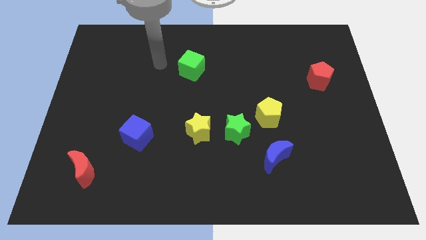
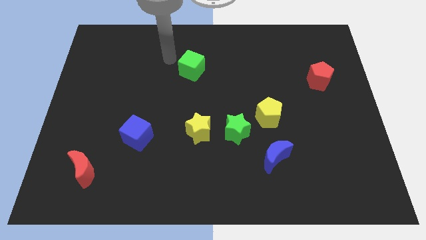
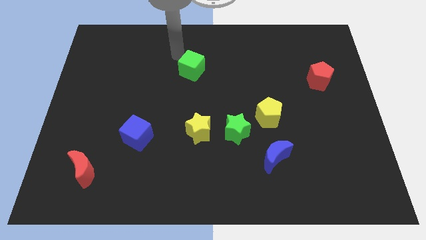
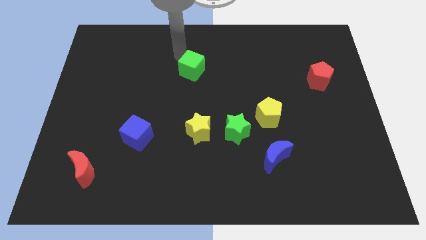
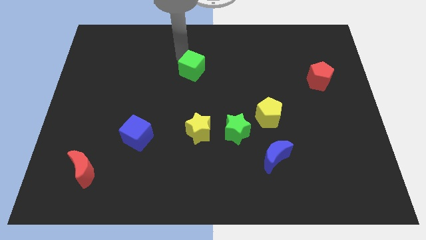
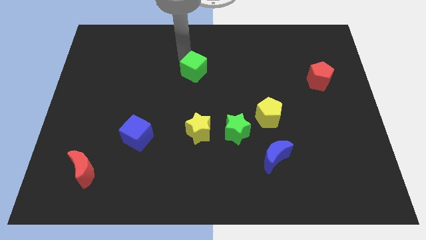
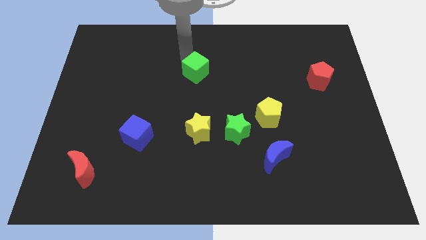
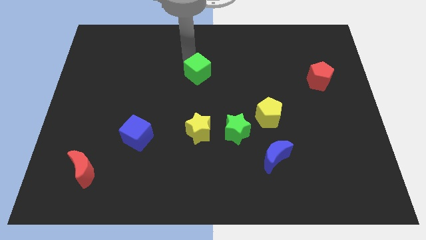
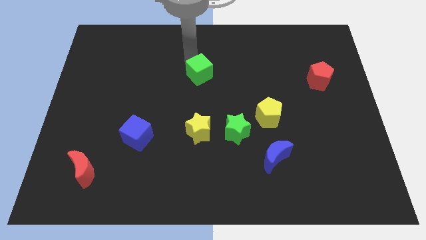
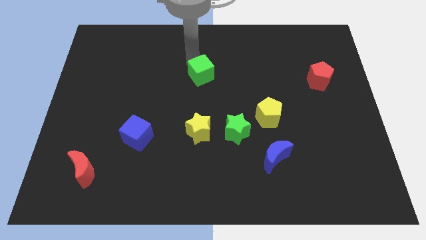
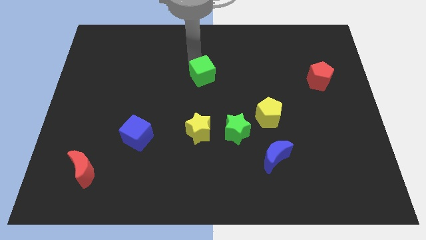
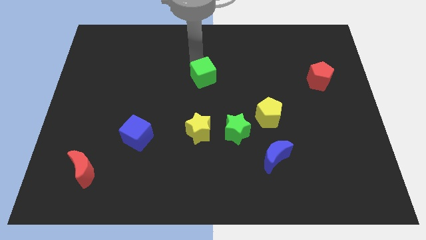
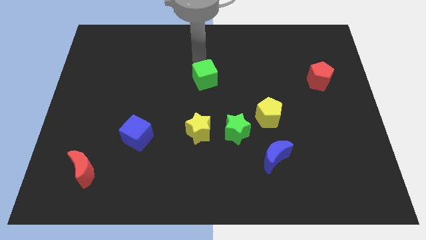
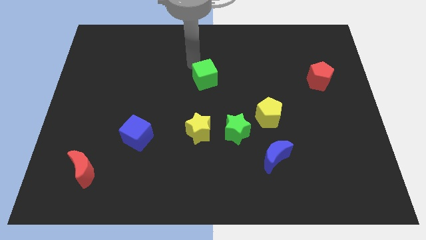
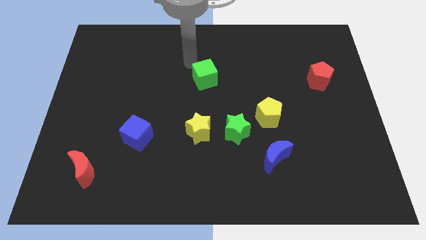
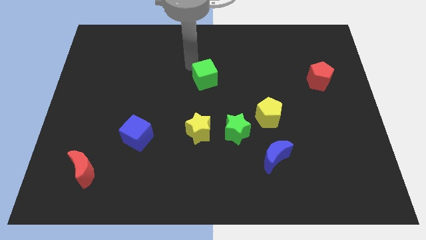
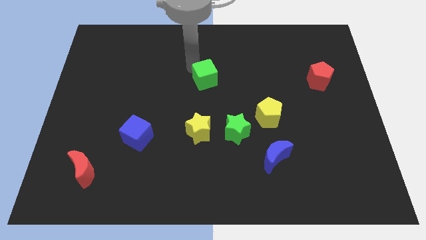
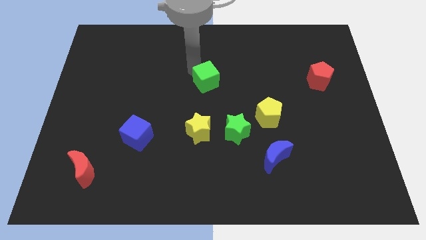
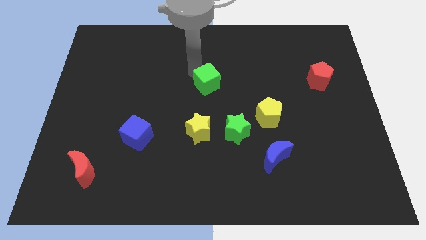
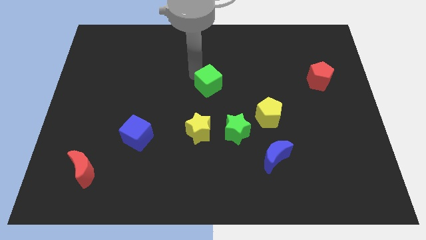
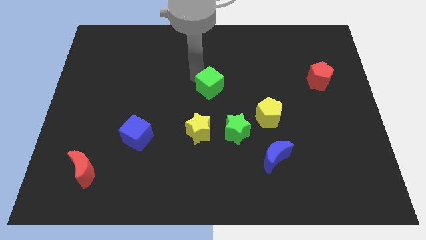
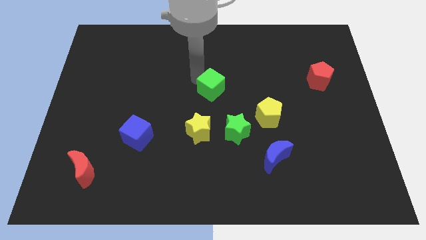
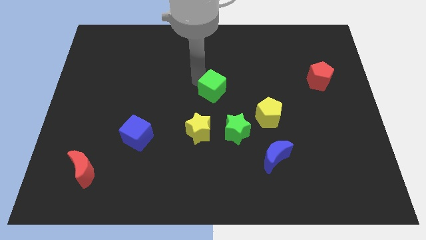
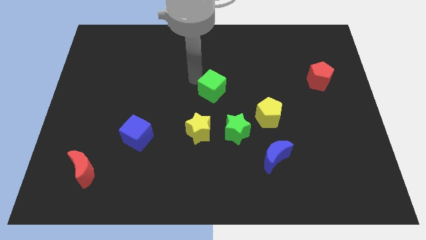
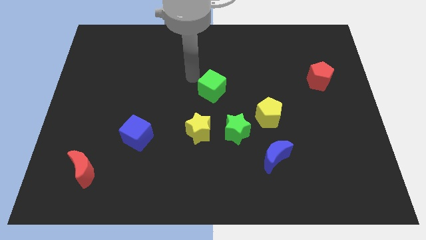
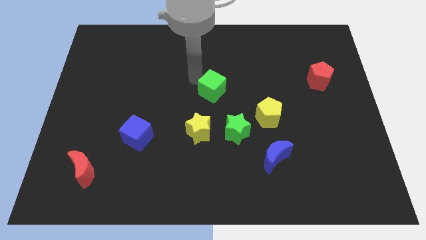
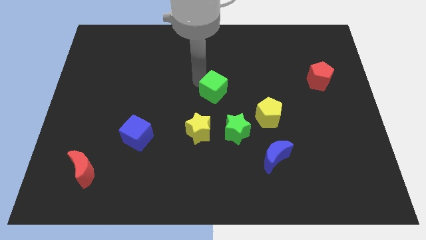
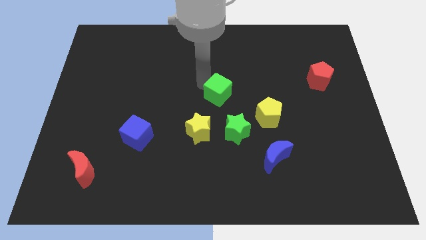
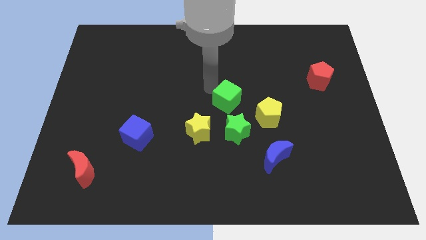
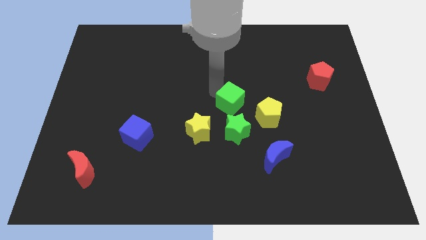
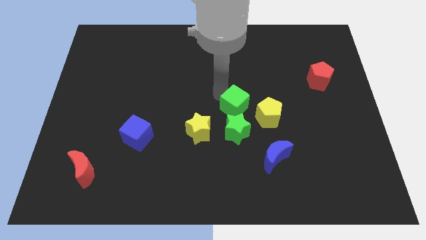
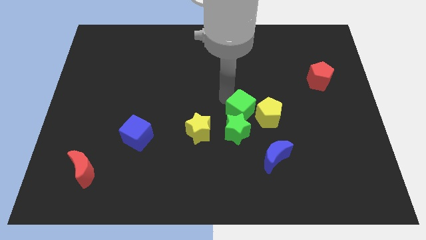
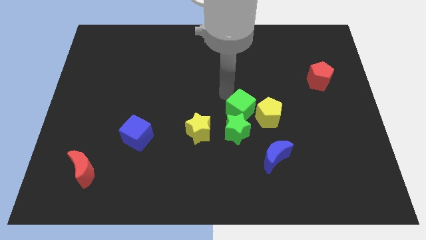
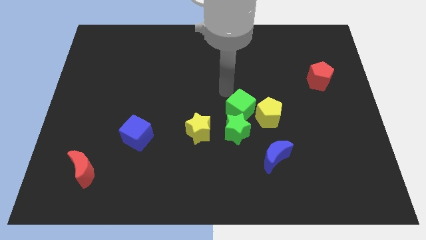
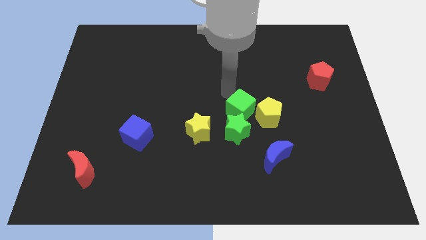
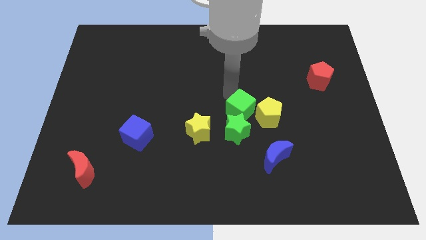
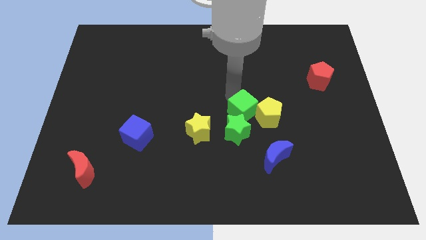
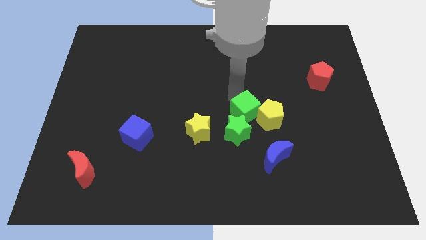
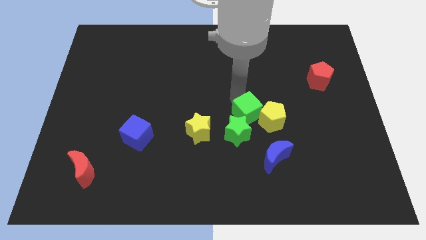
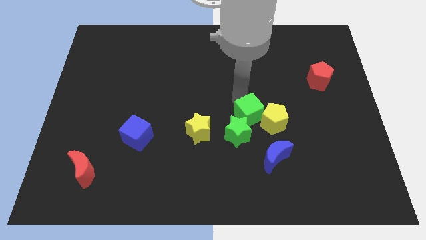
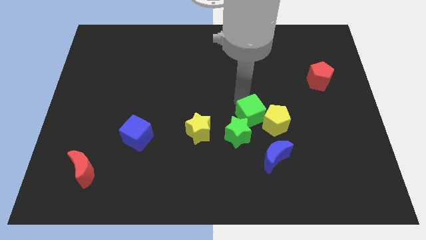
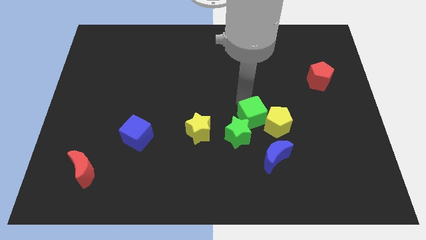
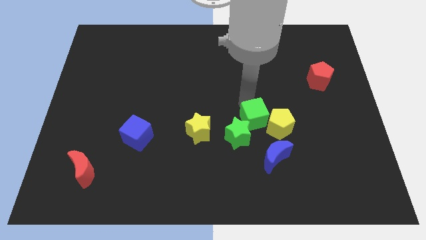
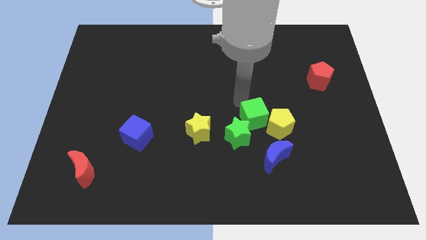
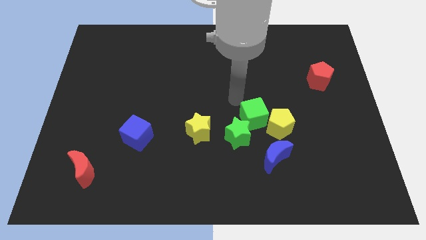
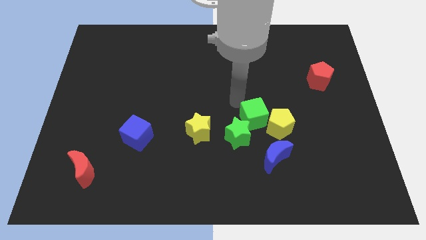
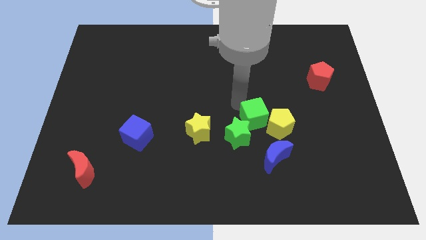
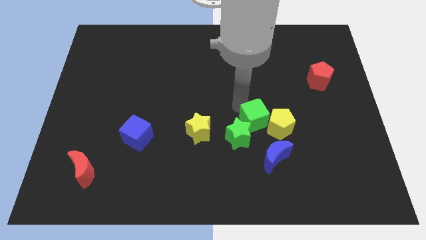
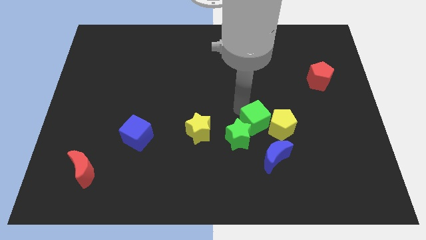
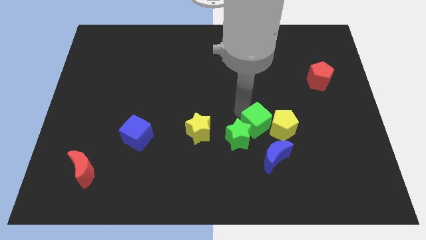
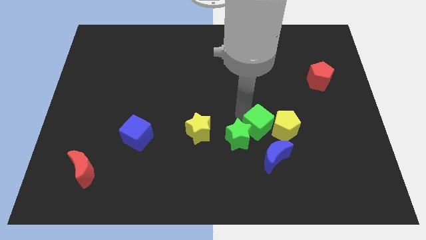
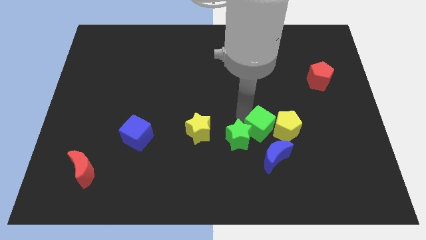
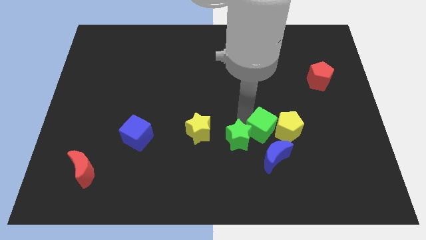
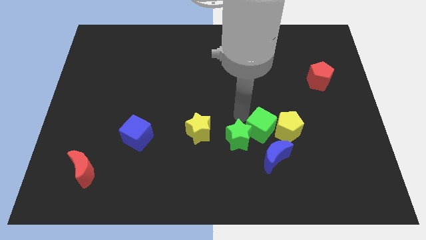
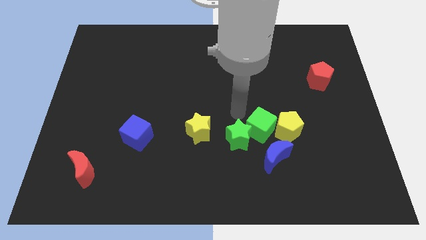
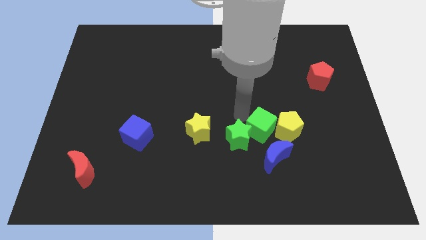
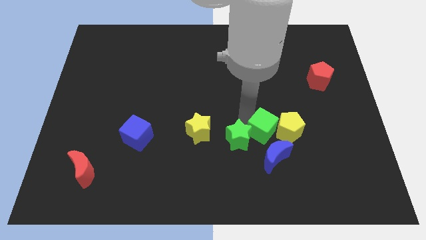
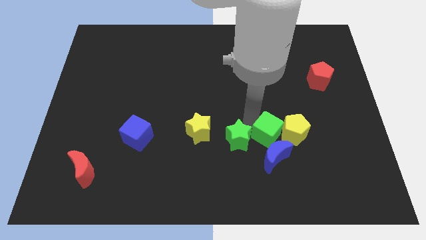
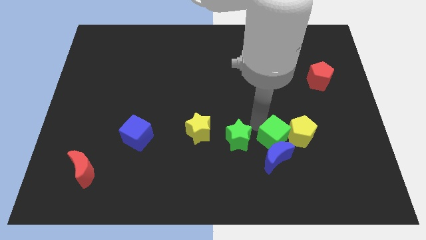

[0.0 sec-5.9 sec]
put the green cube close to the blue moon

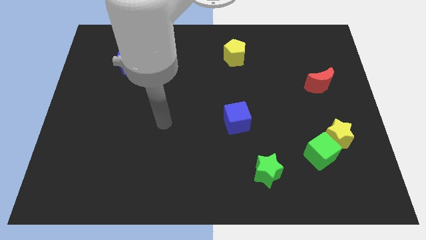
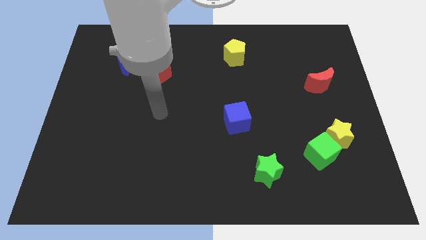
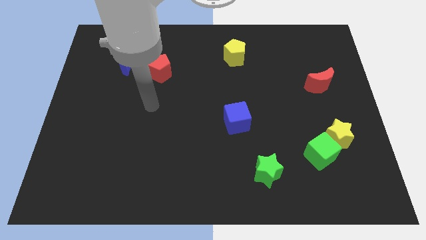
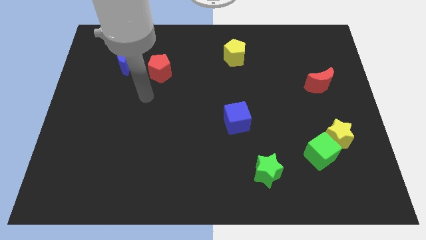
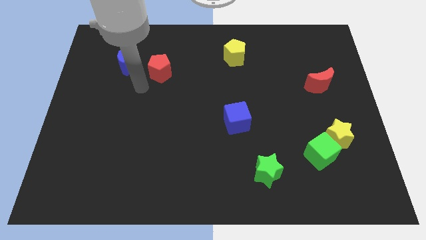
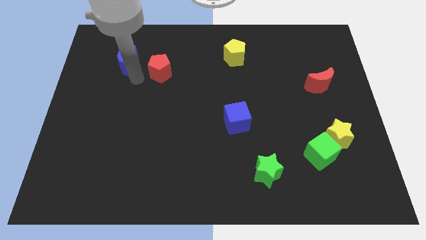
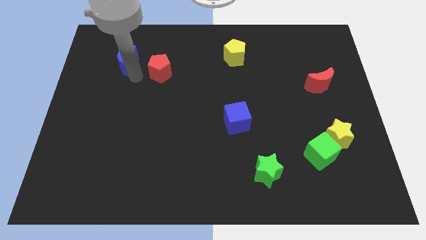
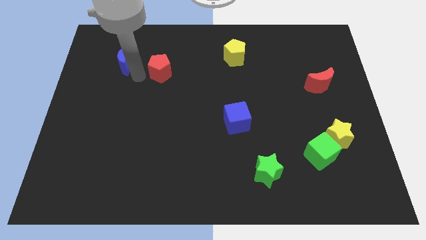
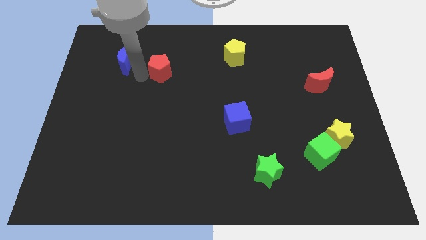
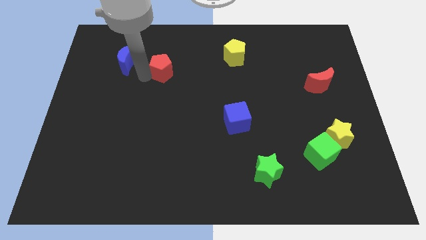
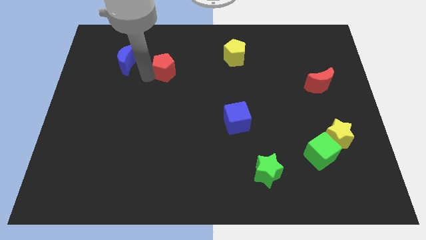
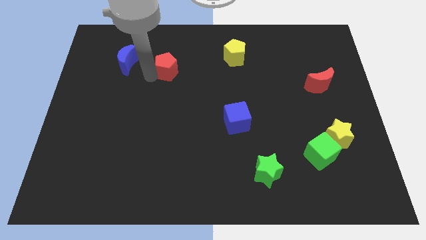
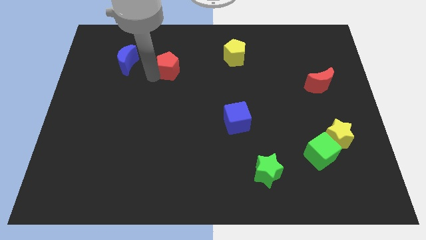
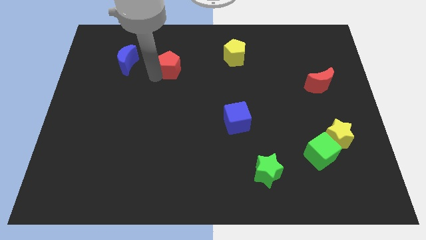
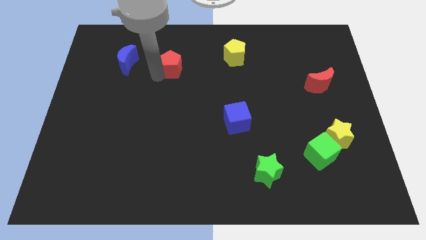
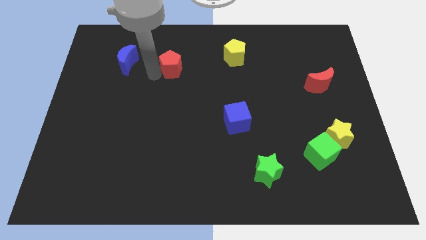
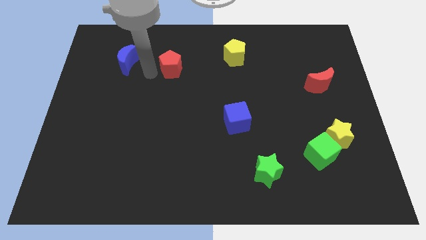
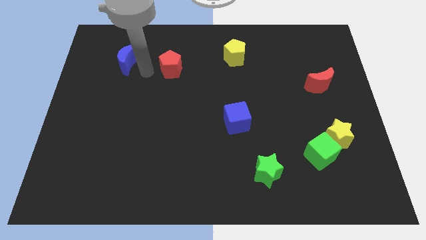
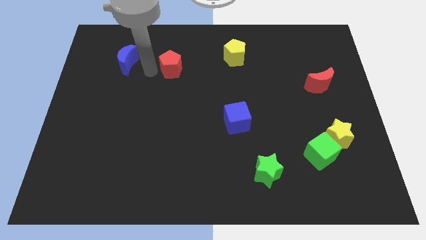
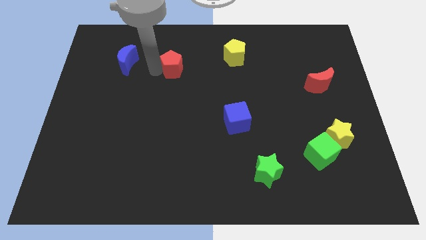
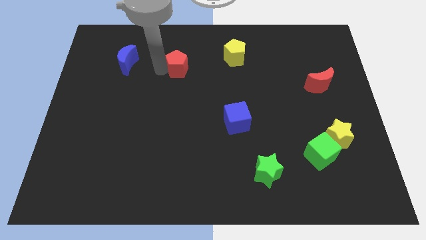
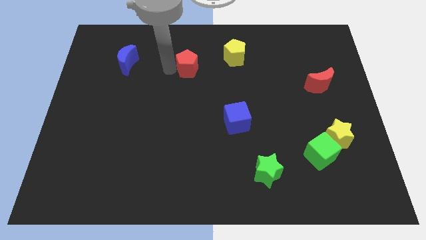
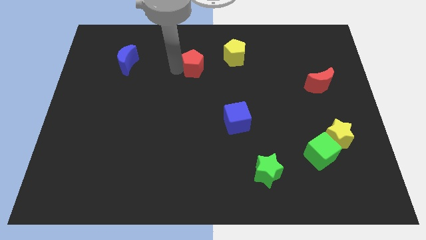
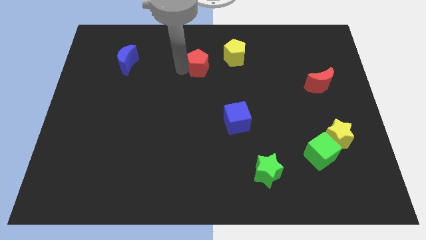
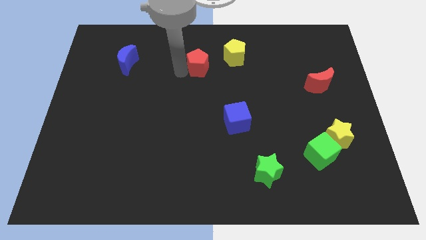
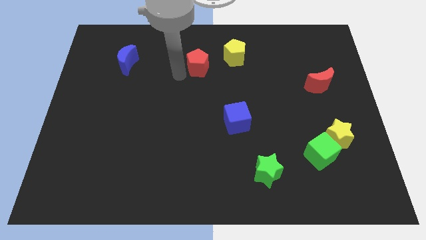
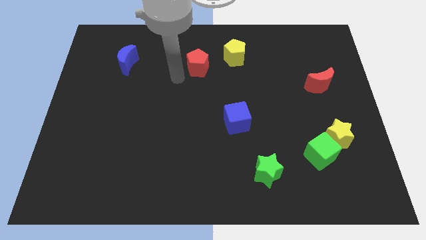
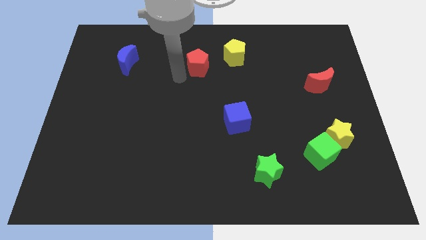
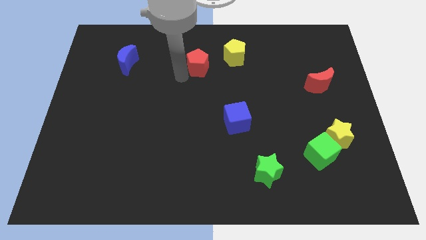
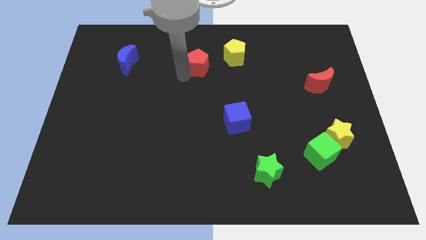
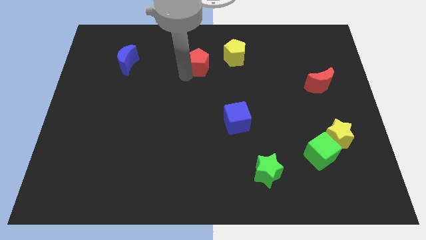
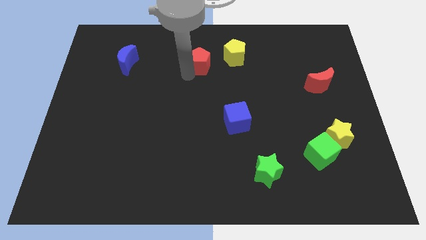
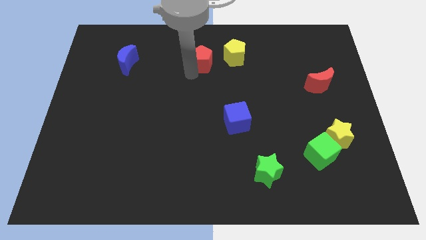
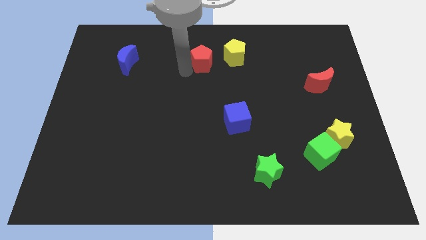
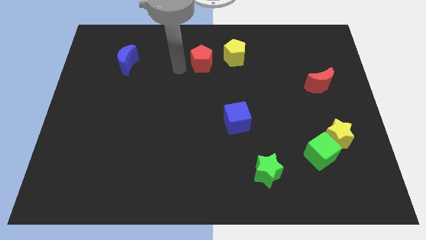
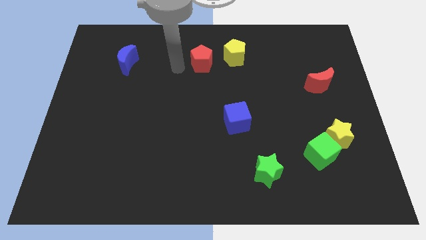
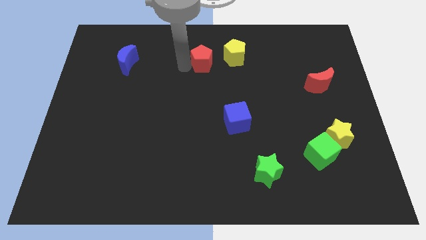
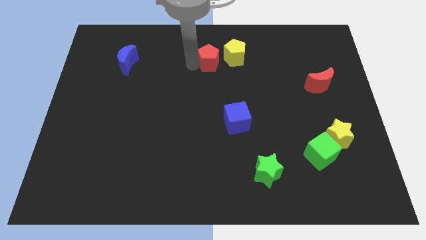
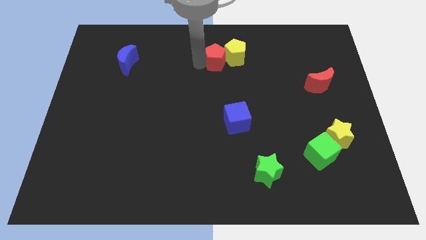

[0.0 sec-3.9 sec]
push the red pentagon to the yellow pentagon
